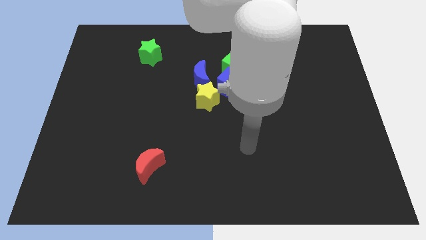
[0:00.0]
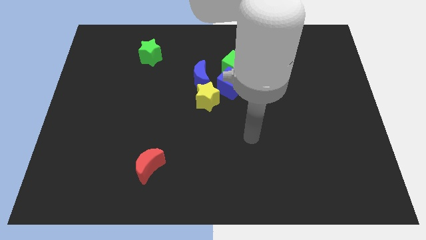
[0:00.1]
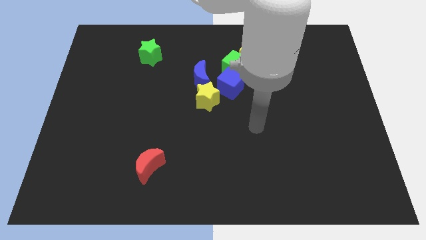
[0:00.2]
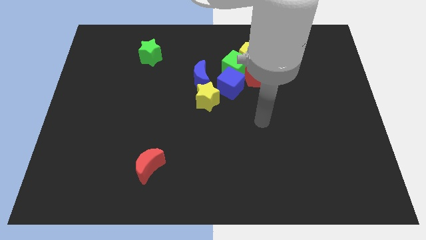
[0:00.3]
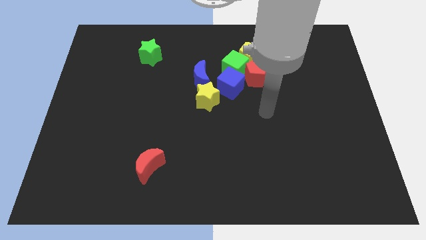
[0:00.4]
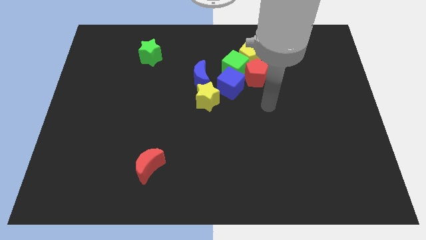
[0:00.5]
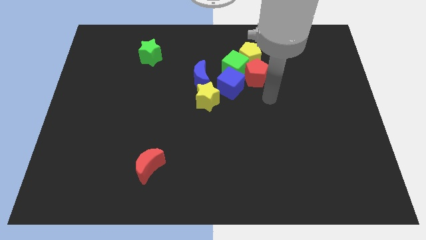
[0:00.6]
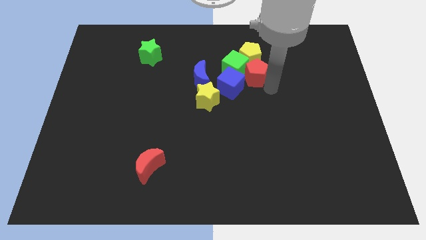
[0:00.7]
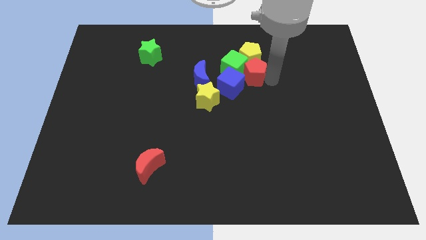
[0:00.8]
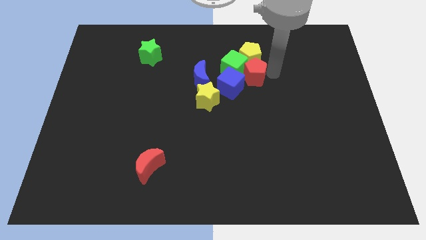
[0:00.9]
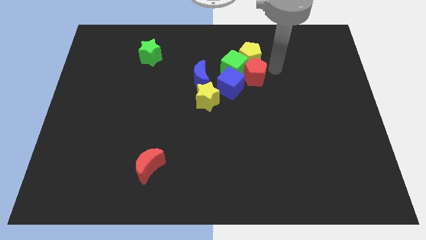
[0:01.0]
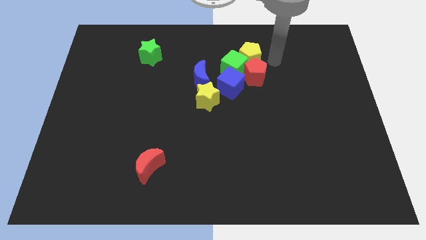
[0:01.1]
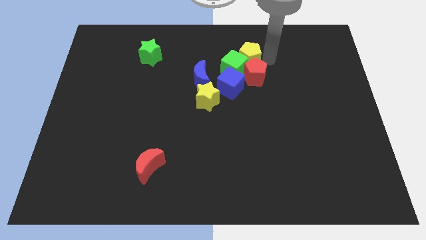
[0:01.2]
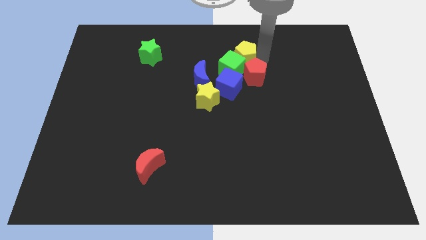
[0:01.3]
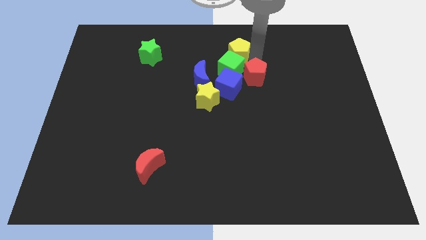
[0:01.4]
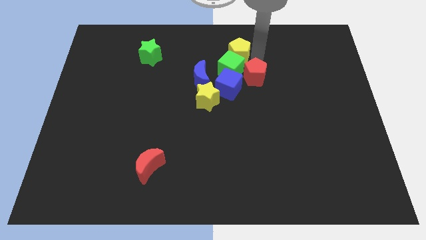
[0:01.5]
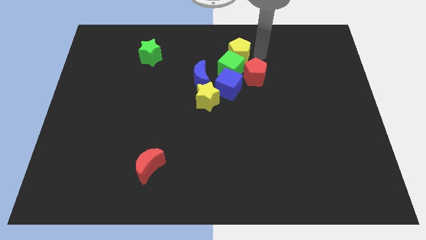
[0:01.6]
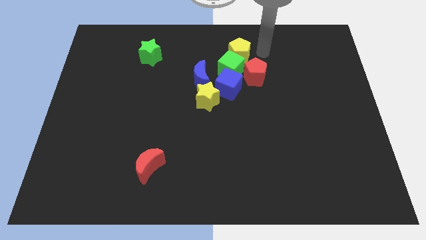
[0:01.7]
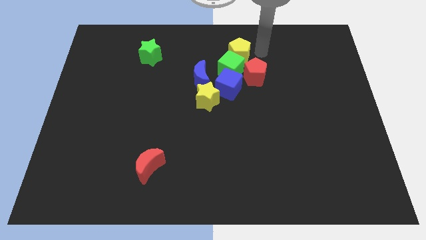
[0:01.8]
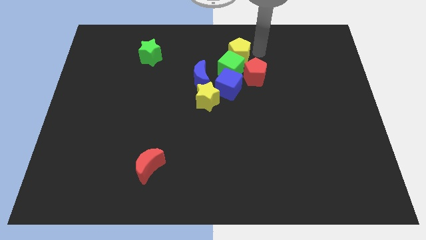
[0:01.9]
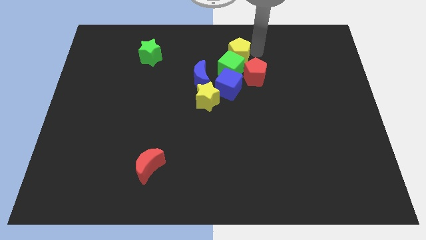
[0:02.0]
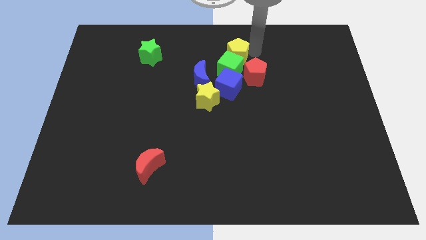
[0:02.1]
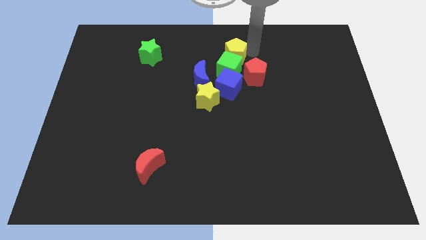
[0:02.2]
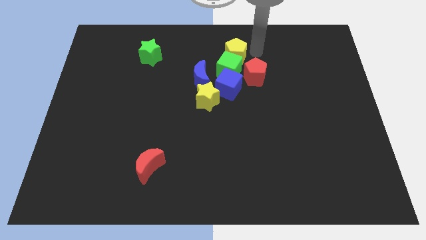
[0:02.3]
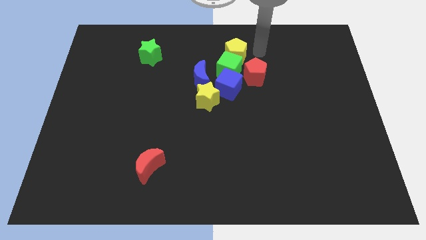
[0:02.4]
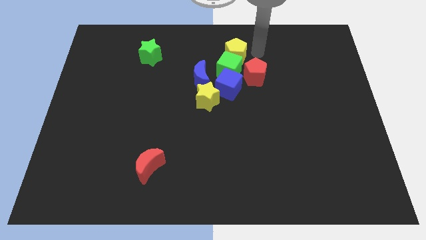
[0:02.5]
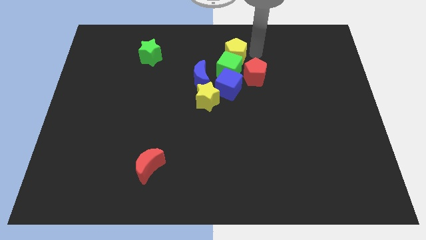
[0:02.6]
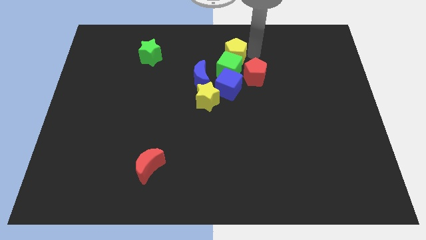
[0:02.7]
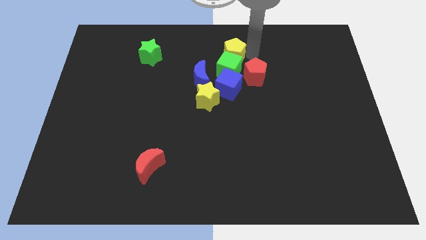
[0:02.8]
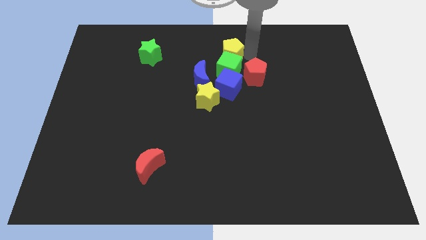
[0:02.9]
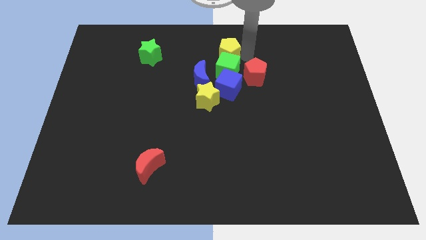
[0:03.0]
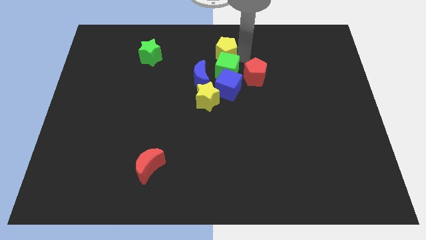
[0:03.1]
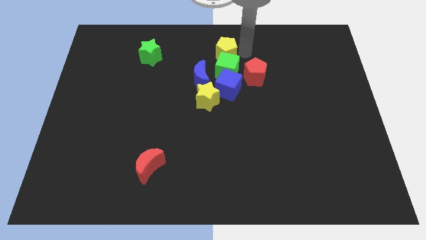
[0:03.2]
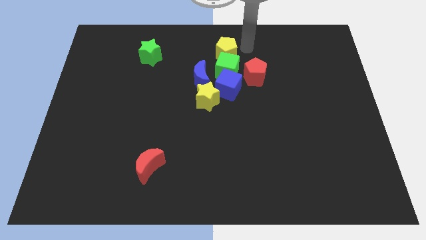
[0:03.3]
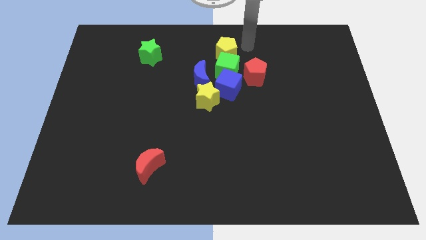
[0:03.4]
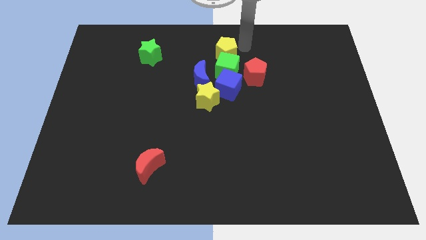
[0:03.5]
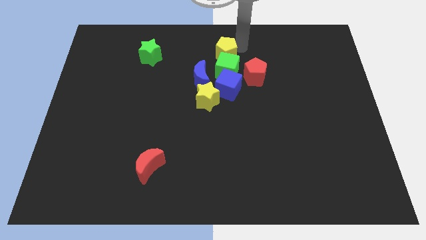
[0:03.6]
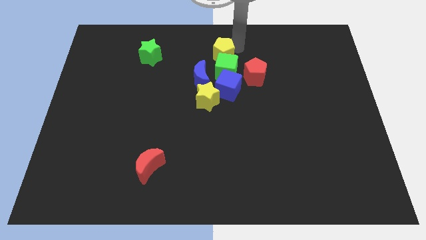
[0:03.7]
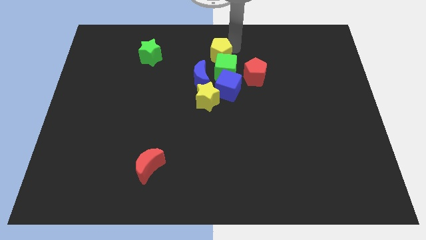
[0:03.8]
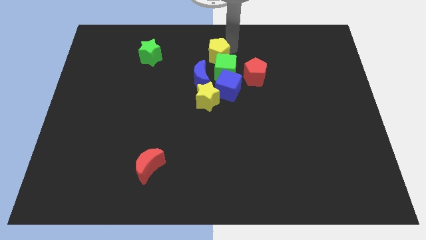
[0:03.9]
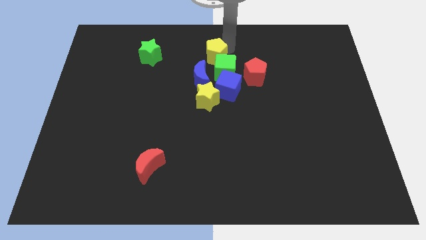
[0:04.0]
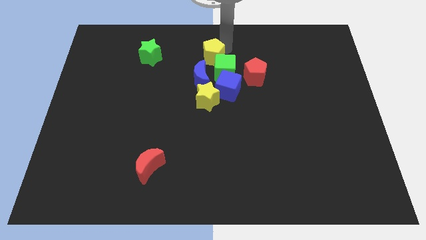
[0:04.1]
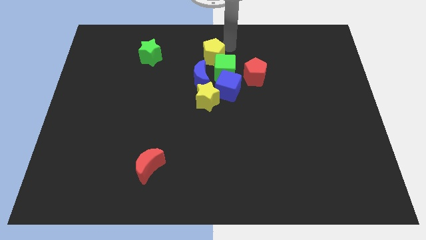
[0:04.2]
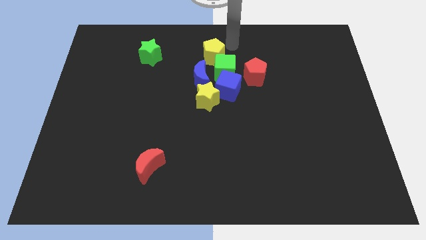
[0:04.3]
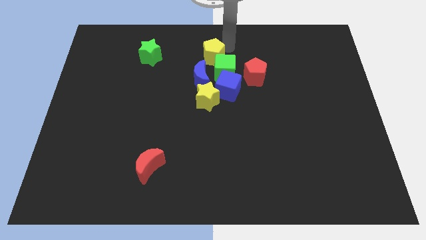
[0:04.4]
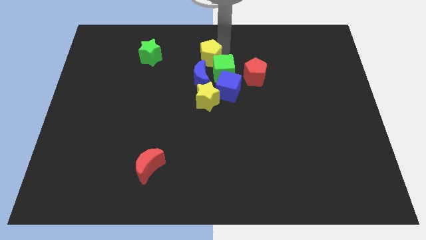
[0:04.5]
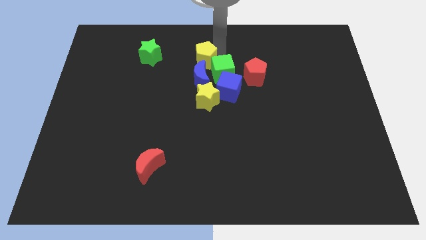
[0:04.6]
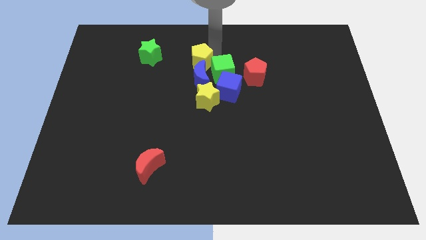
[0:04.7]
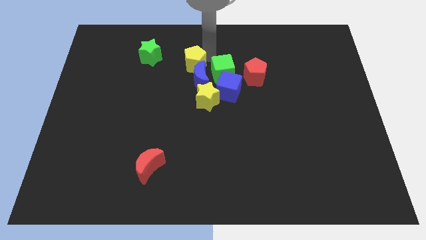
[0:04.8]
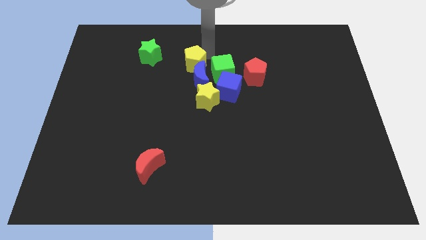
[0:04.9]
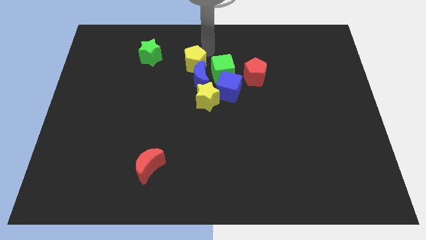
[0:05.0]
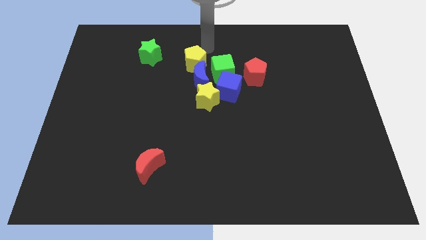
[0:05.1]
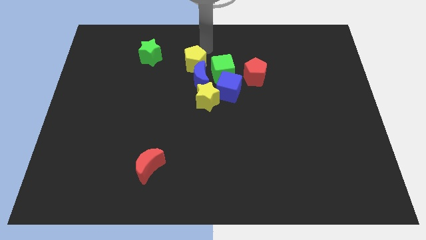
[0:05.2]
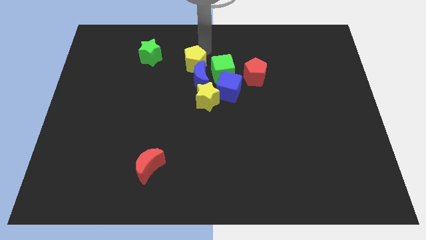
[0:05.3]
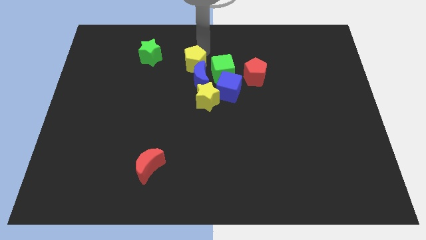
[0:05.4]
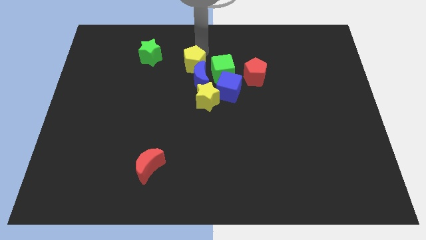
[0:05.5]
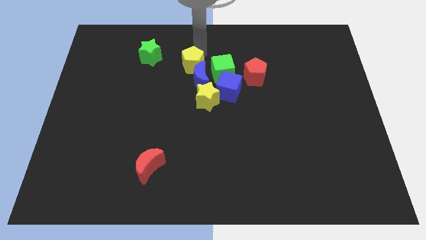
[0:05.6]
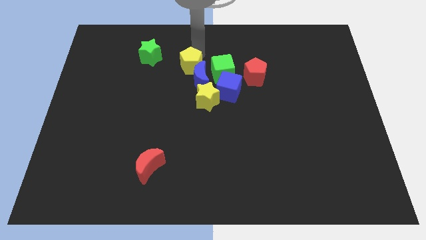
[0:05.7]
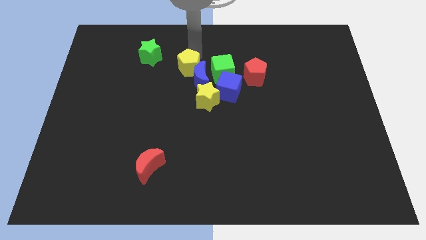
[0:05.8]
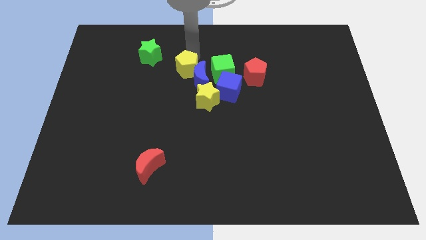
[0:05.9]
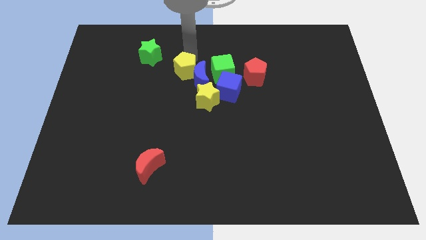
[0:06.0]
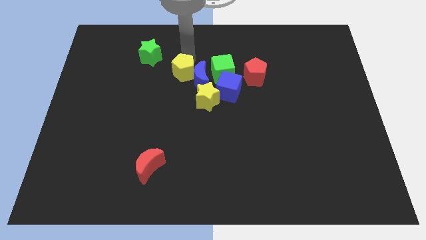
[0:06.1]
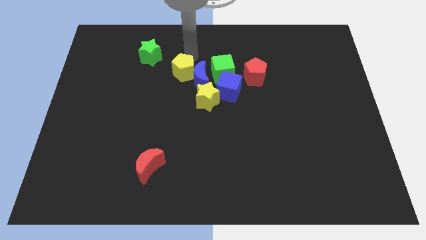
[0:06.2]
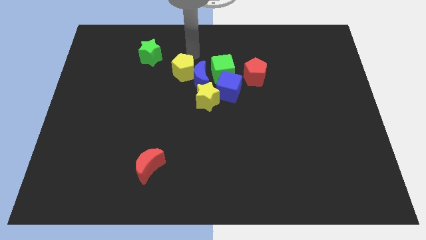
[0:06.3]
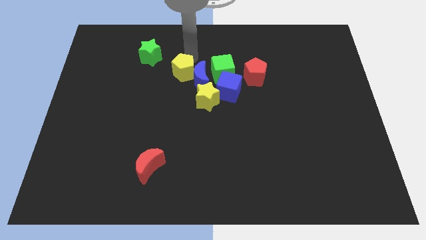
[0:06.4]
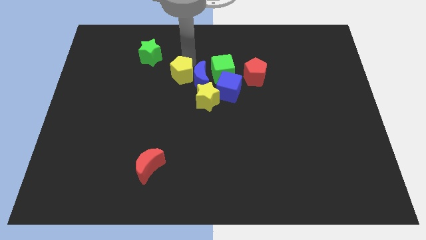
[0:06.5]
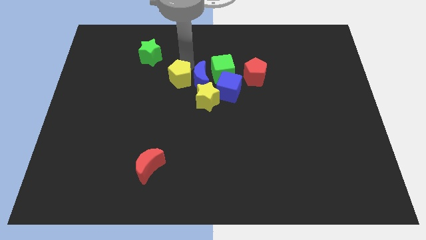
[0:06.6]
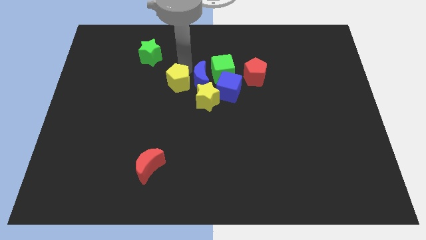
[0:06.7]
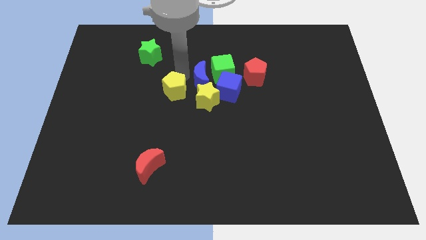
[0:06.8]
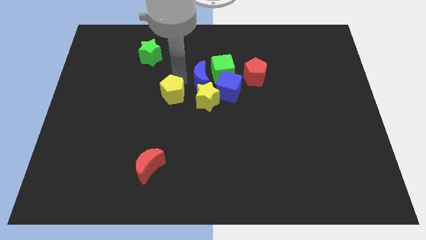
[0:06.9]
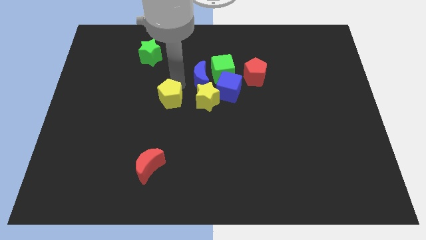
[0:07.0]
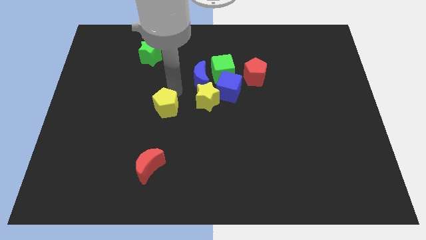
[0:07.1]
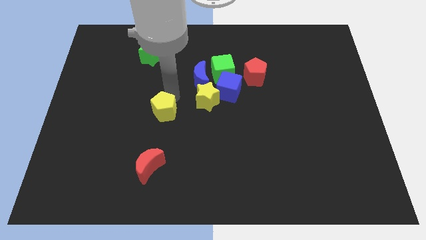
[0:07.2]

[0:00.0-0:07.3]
push the yellow pentagon to the top side of the red moon
